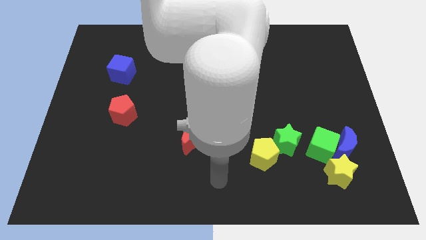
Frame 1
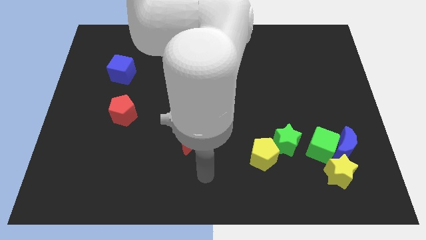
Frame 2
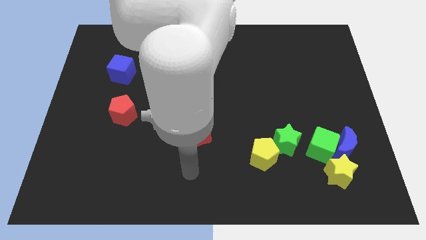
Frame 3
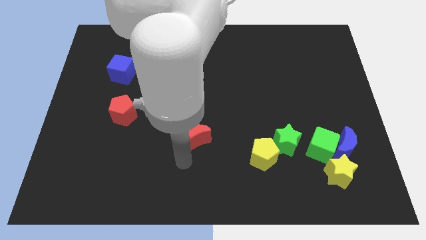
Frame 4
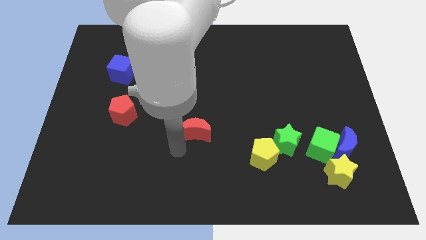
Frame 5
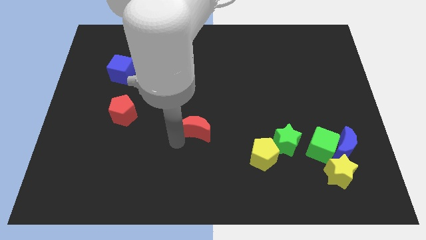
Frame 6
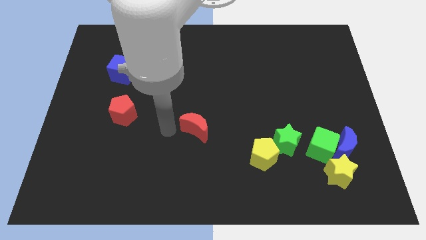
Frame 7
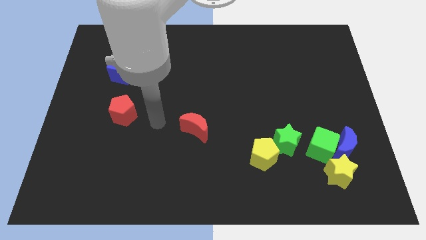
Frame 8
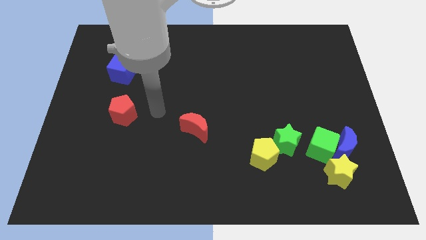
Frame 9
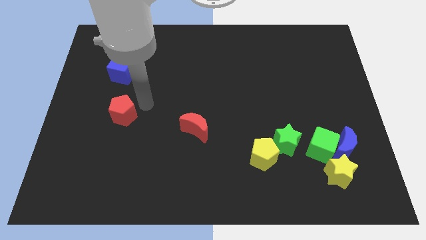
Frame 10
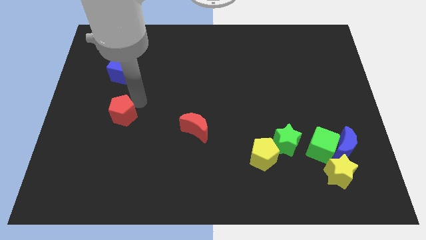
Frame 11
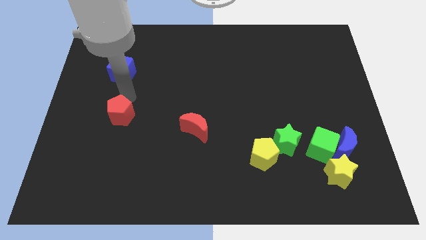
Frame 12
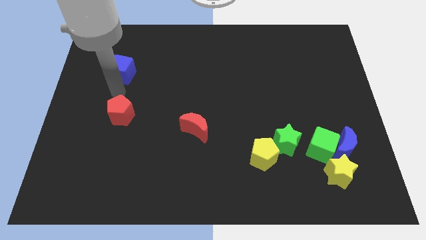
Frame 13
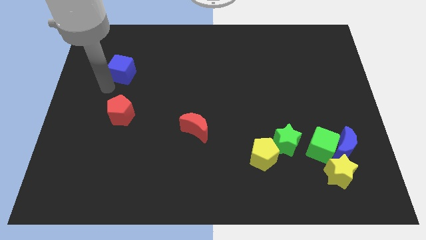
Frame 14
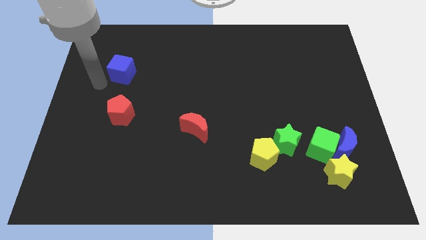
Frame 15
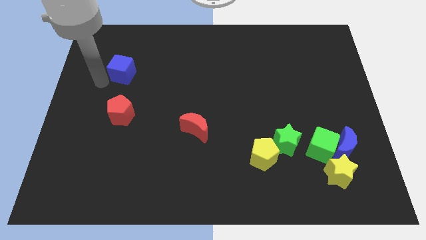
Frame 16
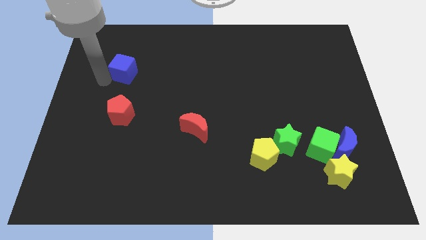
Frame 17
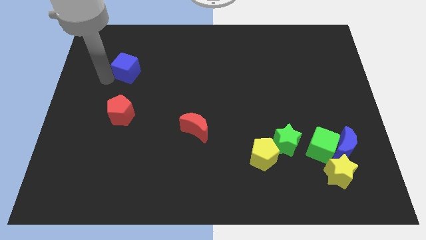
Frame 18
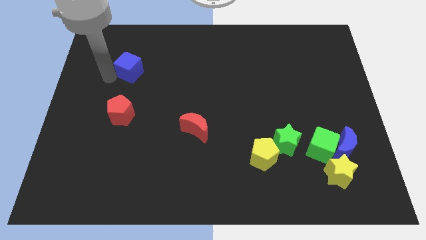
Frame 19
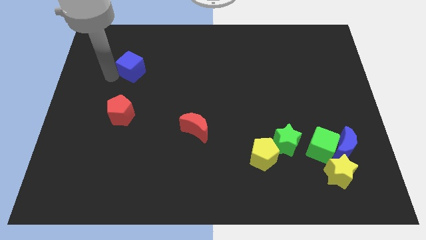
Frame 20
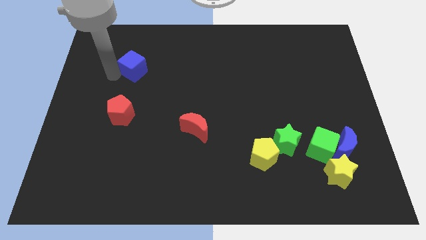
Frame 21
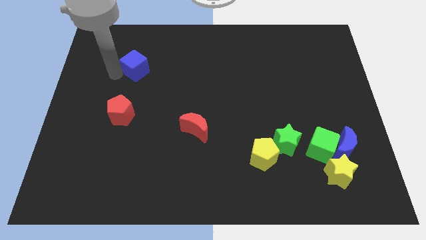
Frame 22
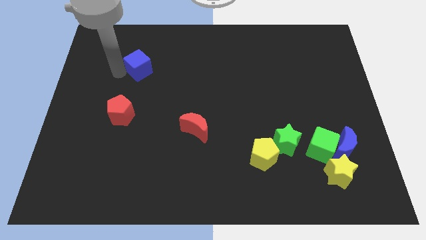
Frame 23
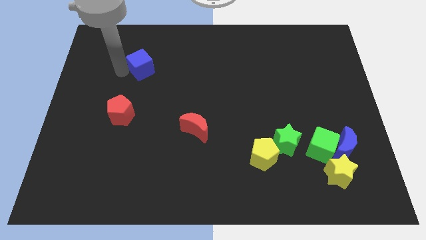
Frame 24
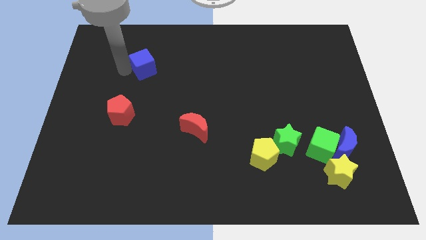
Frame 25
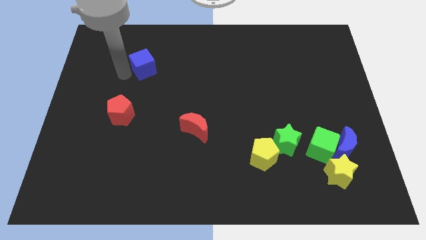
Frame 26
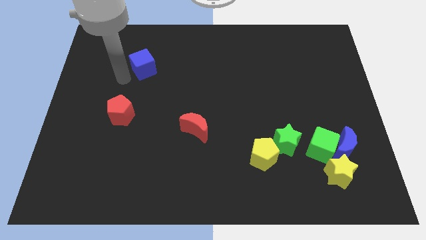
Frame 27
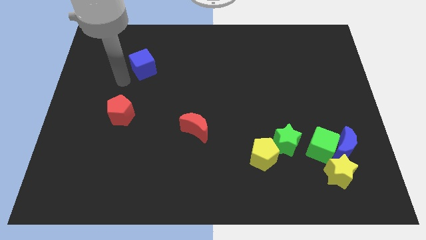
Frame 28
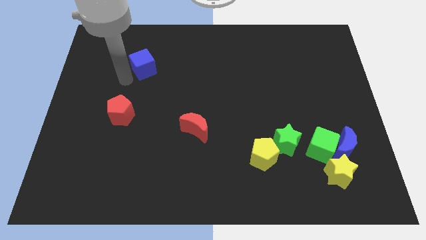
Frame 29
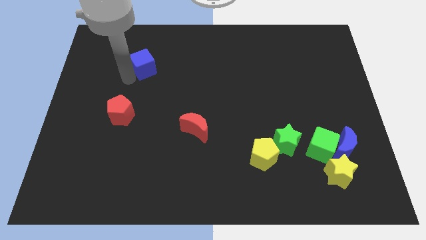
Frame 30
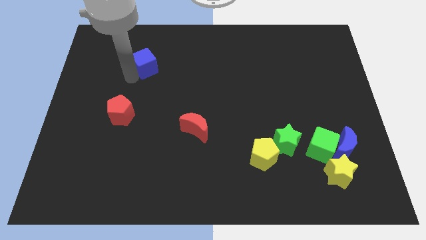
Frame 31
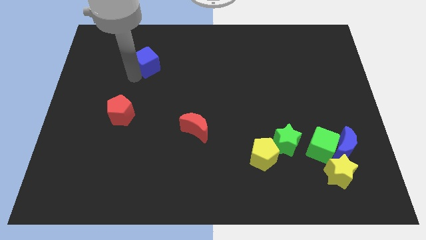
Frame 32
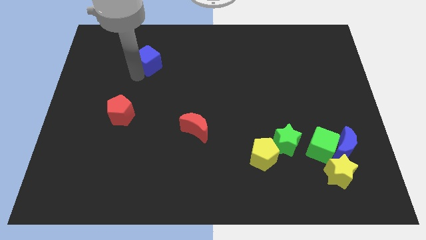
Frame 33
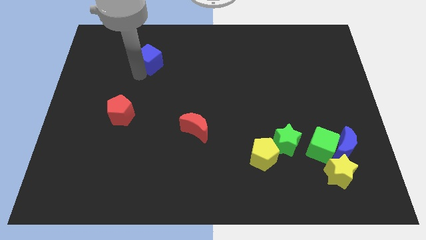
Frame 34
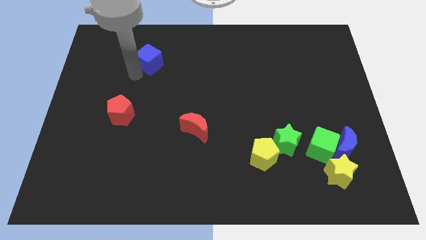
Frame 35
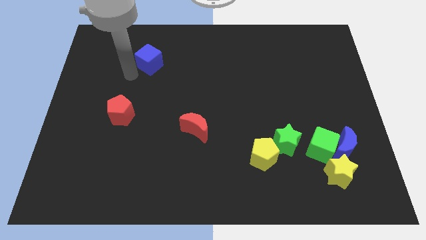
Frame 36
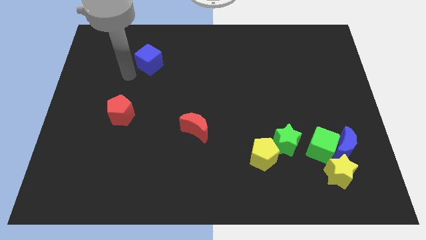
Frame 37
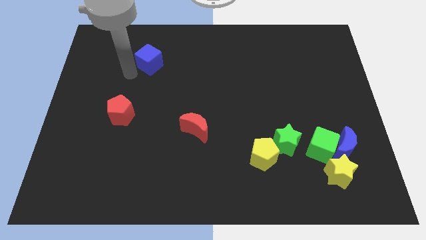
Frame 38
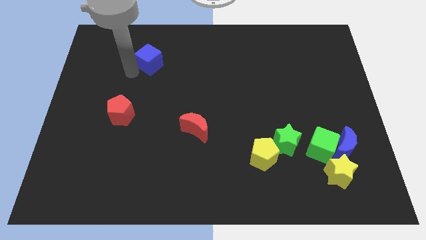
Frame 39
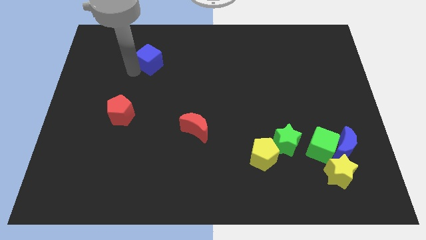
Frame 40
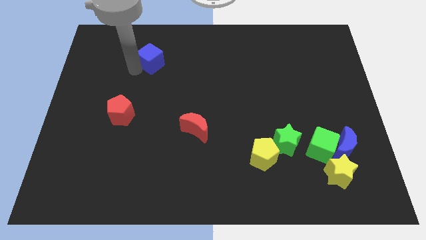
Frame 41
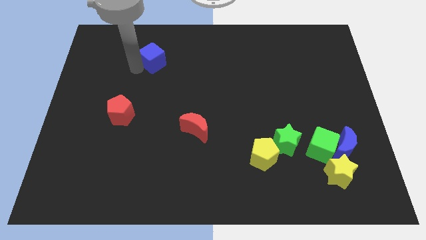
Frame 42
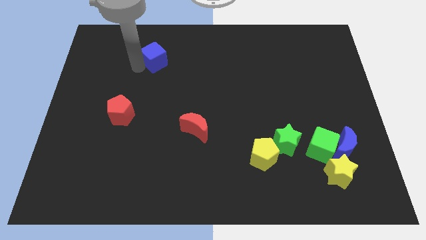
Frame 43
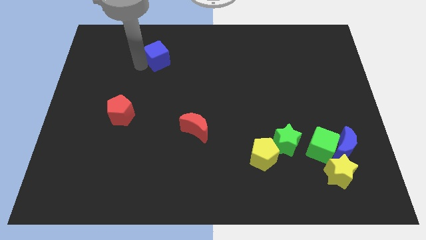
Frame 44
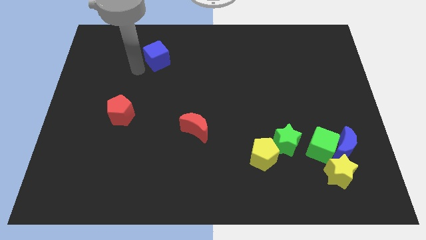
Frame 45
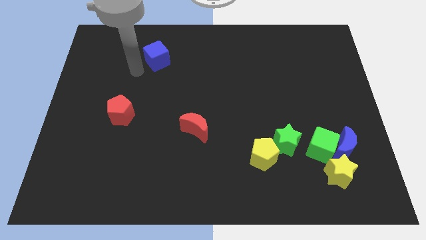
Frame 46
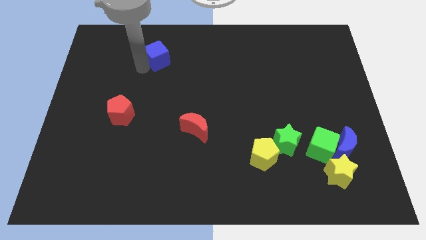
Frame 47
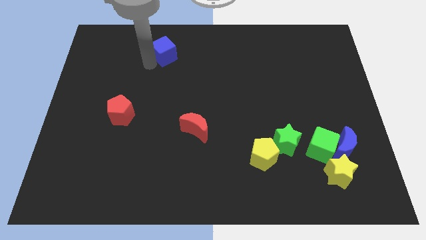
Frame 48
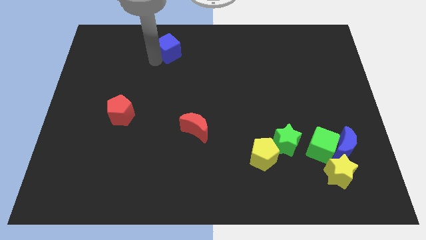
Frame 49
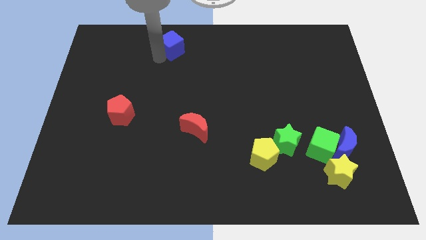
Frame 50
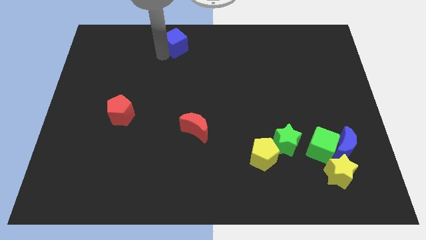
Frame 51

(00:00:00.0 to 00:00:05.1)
put the blue cube to the top side

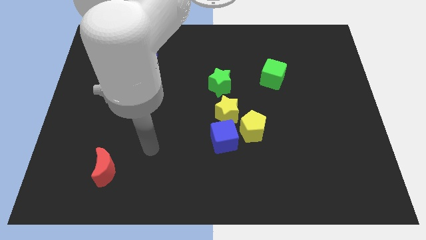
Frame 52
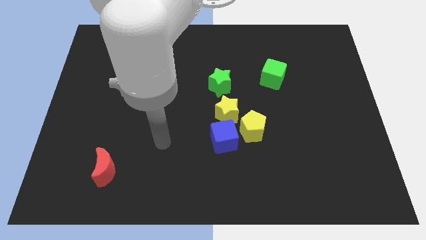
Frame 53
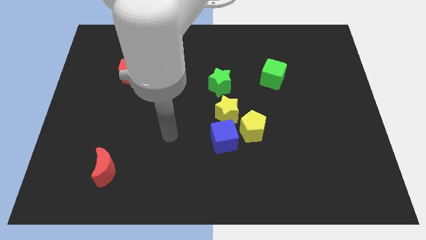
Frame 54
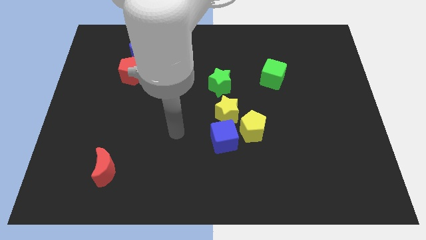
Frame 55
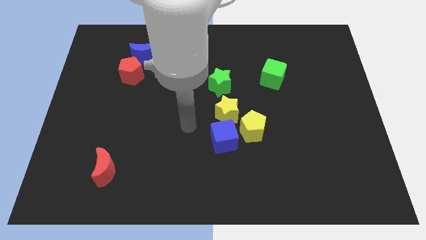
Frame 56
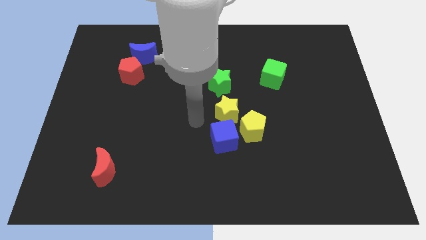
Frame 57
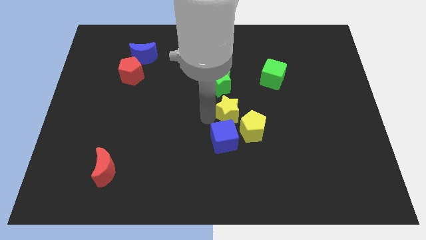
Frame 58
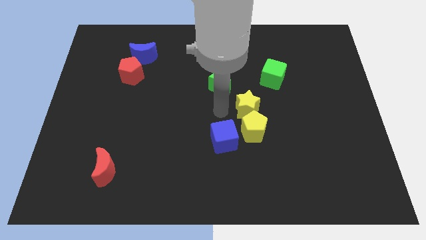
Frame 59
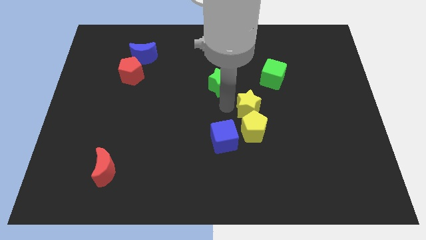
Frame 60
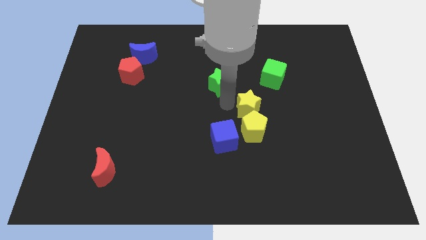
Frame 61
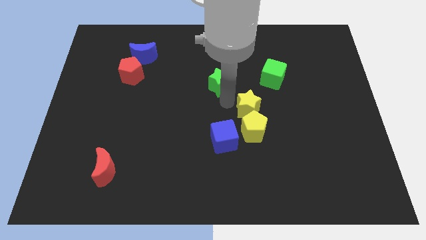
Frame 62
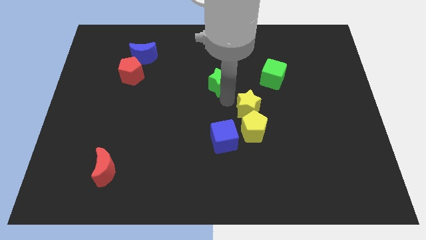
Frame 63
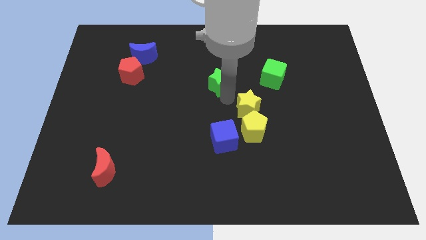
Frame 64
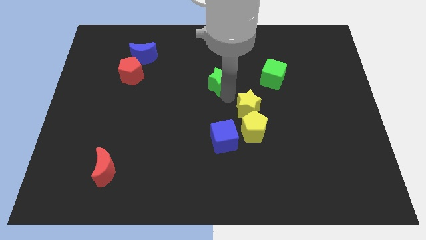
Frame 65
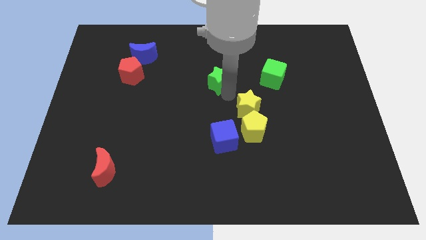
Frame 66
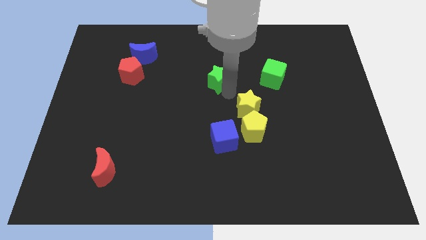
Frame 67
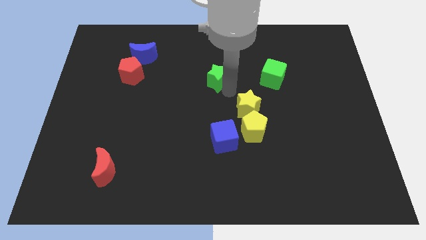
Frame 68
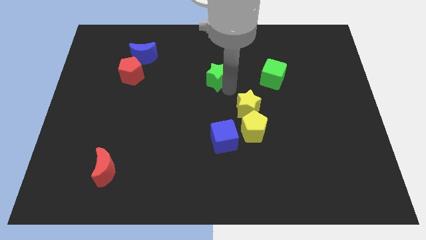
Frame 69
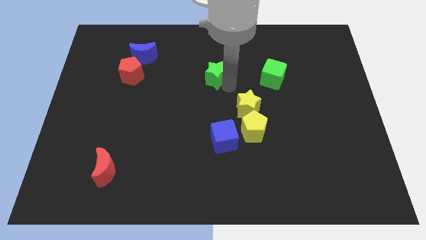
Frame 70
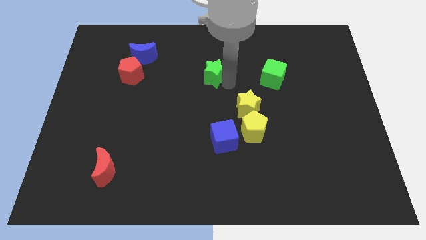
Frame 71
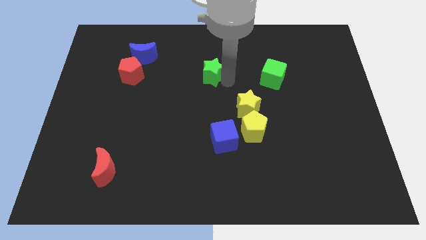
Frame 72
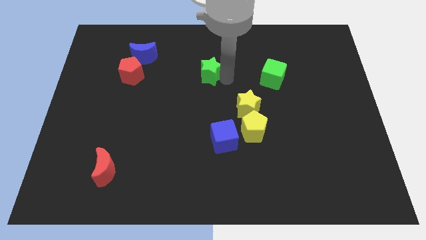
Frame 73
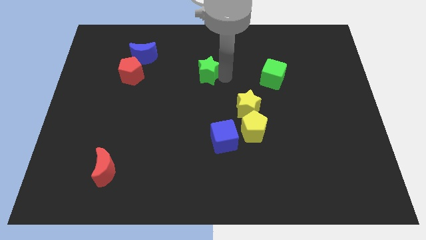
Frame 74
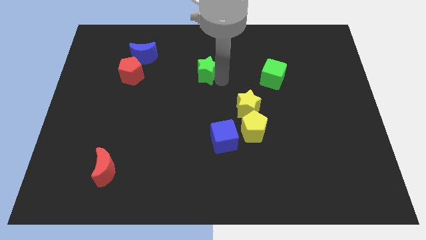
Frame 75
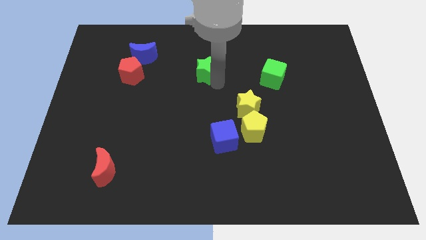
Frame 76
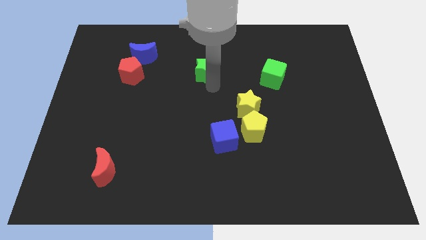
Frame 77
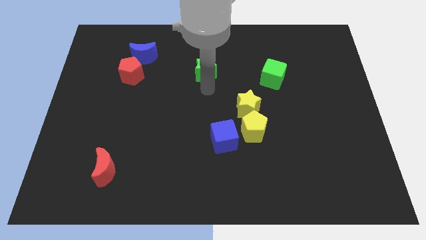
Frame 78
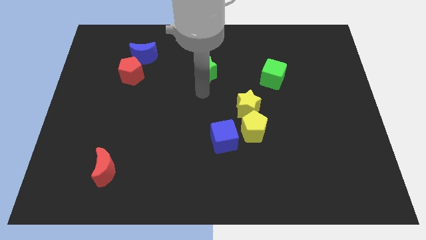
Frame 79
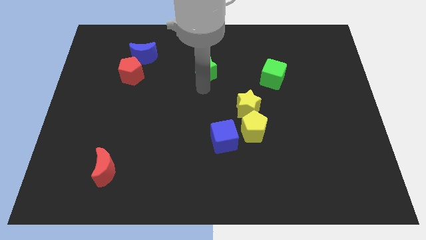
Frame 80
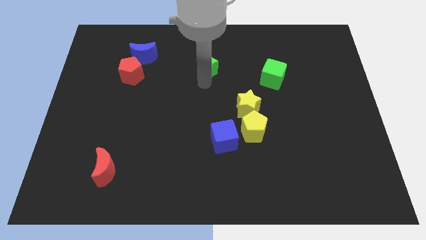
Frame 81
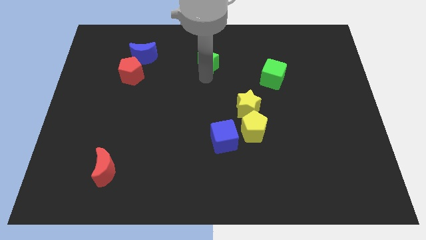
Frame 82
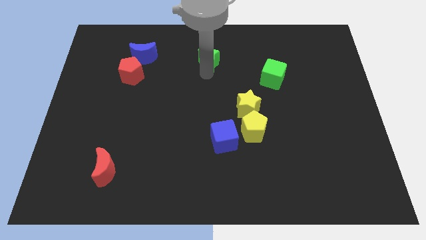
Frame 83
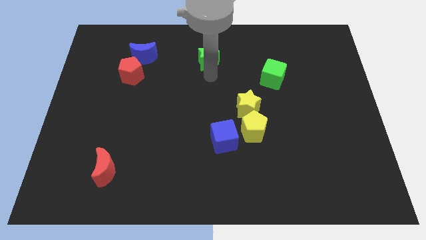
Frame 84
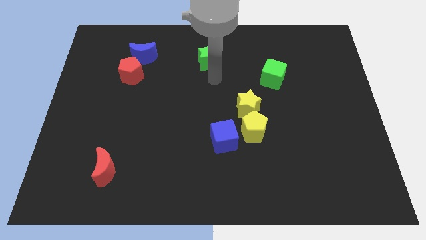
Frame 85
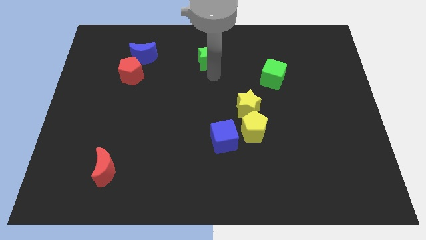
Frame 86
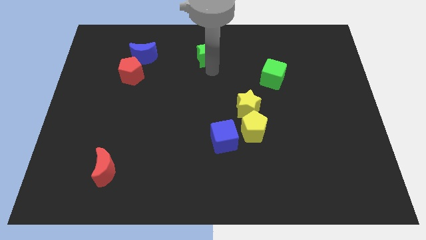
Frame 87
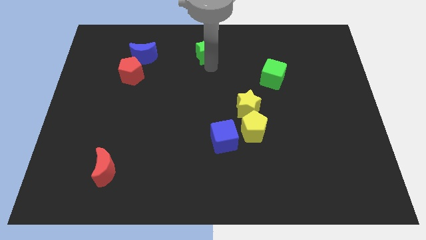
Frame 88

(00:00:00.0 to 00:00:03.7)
push the green star to the top
